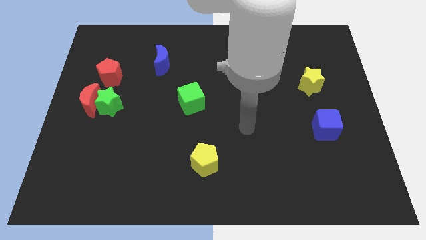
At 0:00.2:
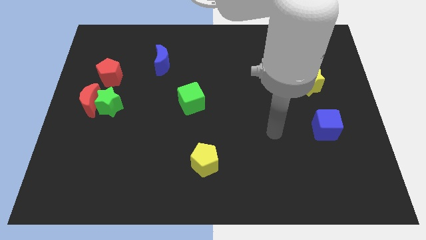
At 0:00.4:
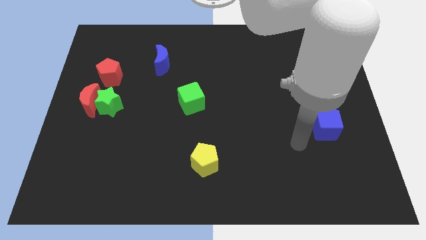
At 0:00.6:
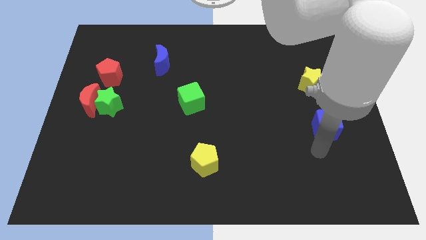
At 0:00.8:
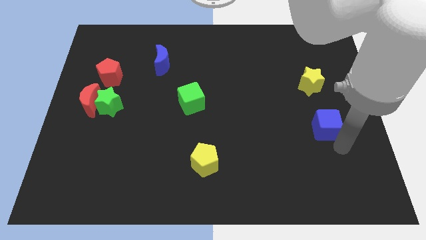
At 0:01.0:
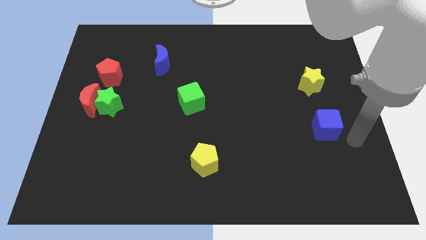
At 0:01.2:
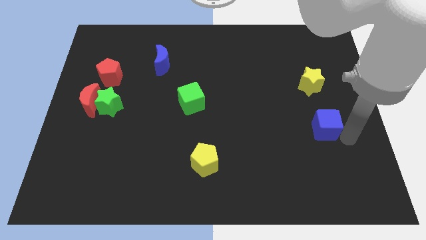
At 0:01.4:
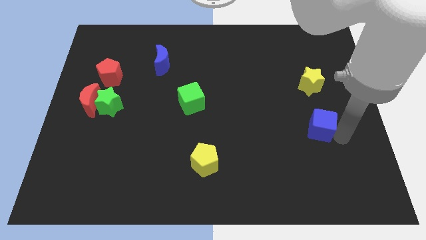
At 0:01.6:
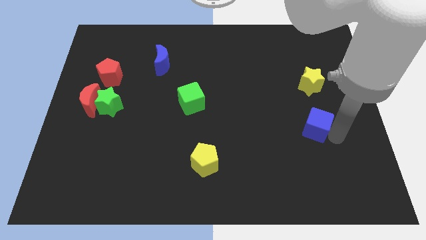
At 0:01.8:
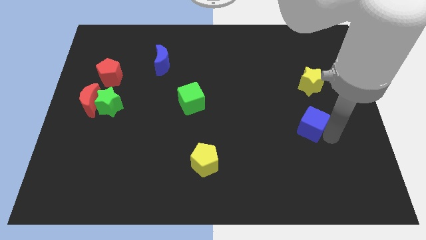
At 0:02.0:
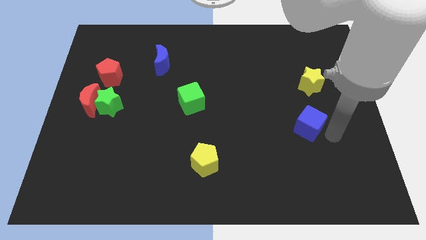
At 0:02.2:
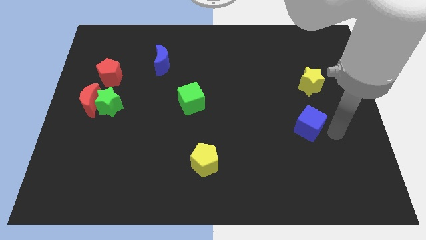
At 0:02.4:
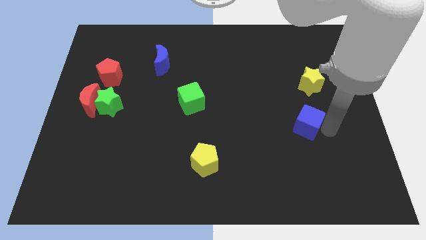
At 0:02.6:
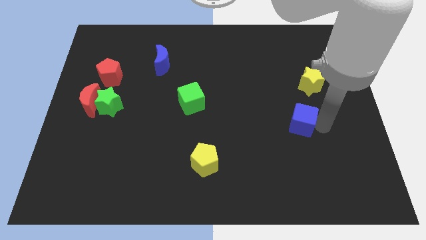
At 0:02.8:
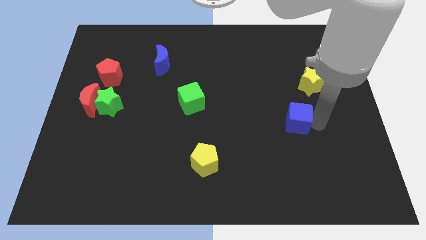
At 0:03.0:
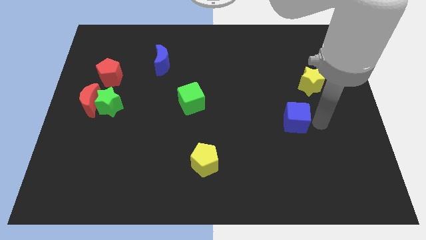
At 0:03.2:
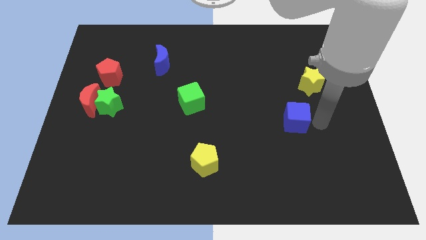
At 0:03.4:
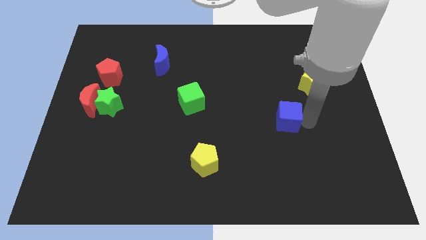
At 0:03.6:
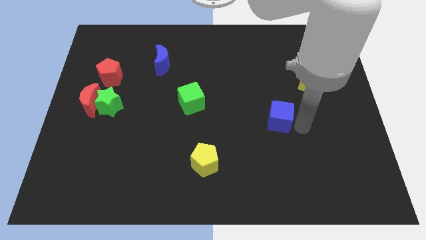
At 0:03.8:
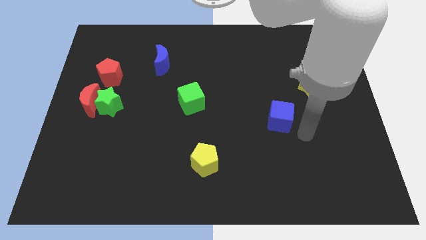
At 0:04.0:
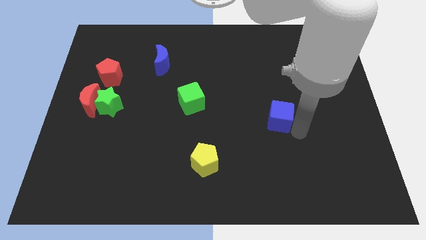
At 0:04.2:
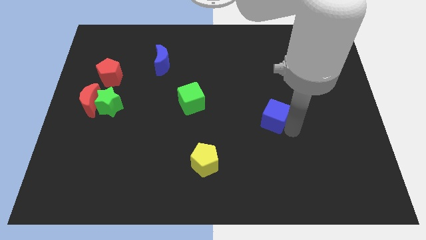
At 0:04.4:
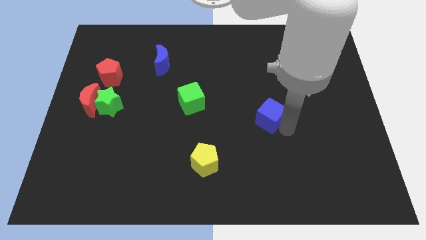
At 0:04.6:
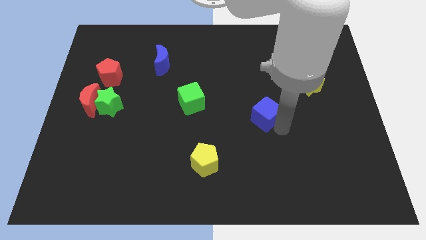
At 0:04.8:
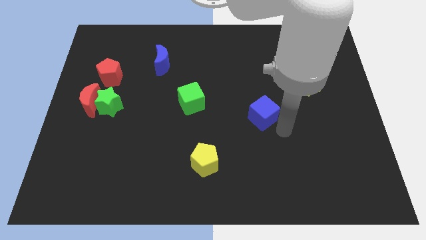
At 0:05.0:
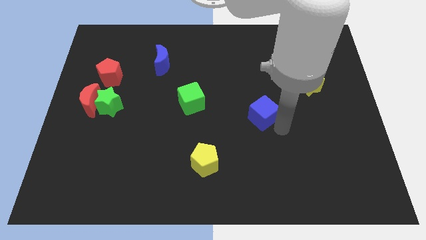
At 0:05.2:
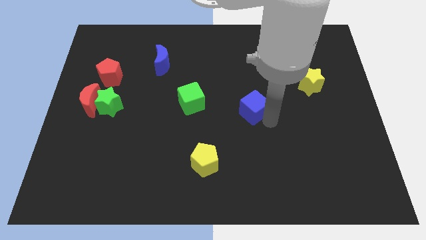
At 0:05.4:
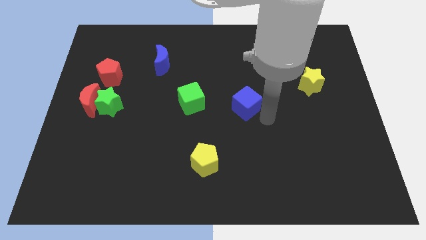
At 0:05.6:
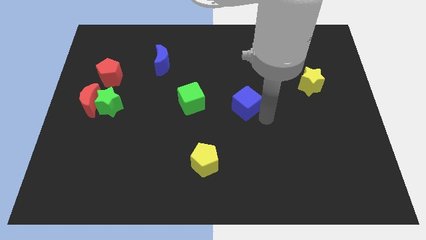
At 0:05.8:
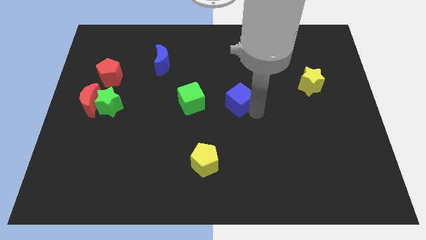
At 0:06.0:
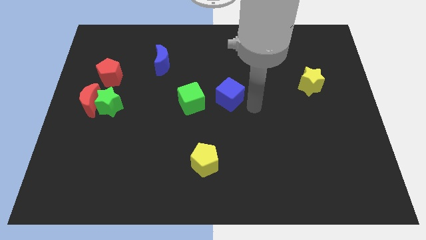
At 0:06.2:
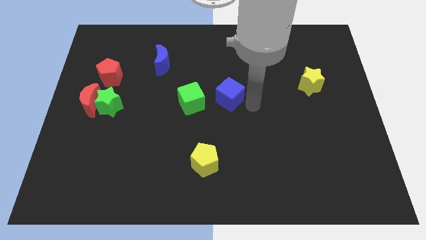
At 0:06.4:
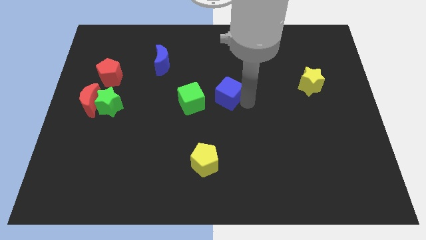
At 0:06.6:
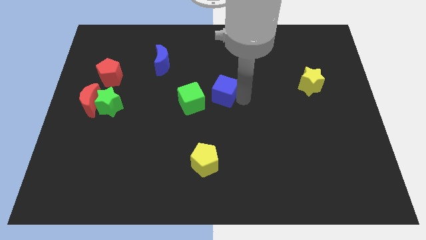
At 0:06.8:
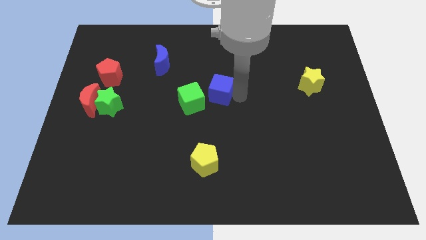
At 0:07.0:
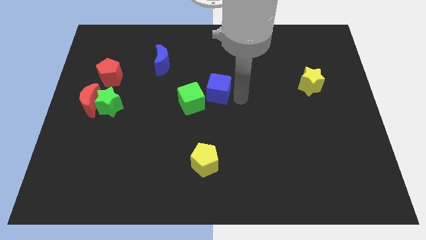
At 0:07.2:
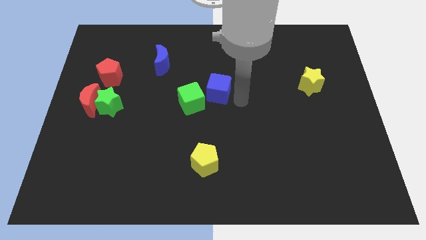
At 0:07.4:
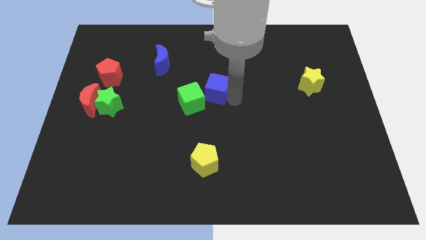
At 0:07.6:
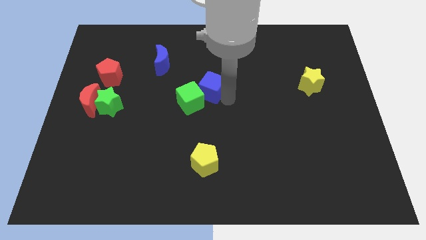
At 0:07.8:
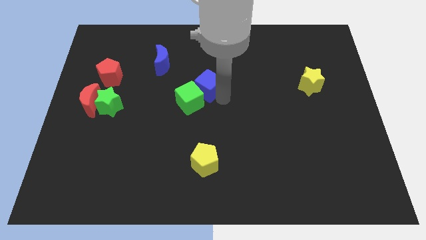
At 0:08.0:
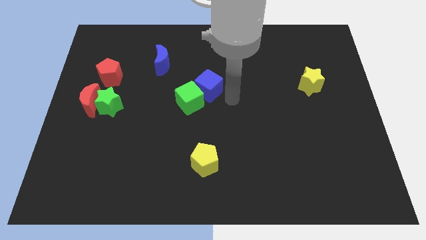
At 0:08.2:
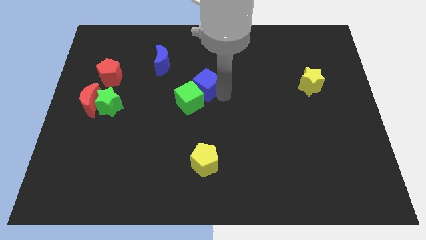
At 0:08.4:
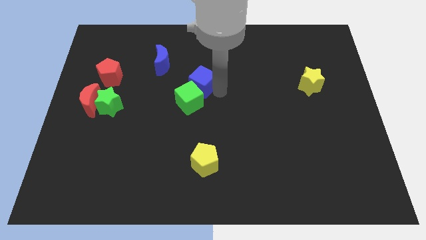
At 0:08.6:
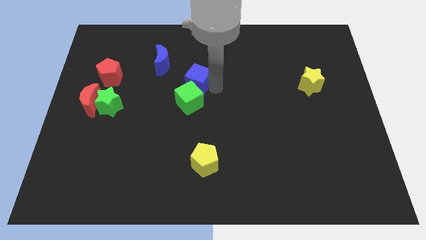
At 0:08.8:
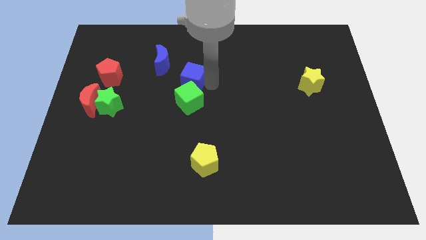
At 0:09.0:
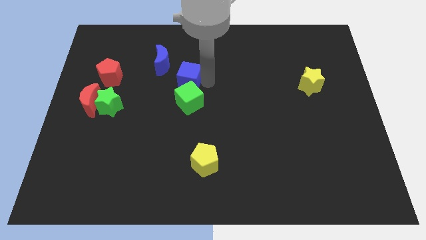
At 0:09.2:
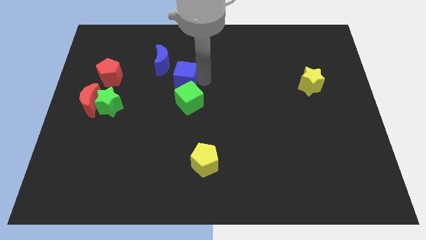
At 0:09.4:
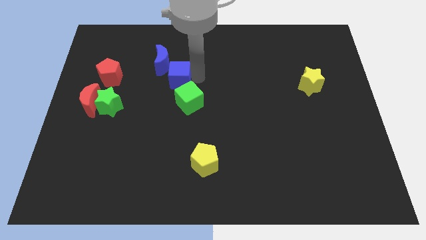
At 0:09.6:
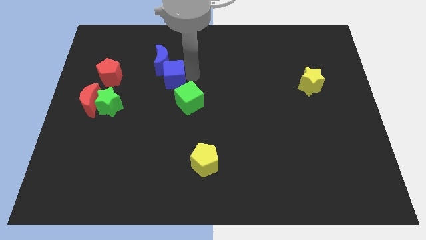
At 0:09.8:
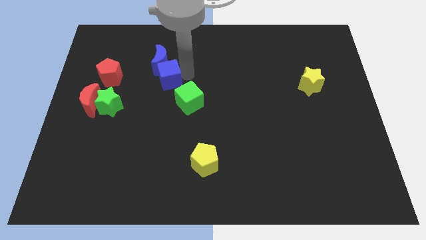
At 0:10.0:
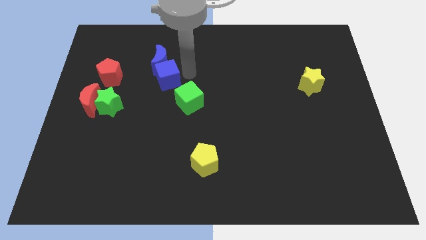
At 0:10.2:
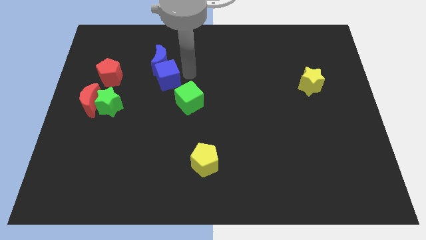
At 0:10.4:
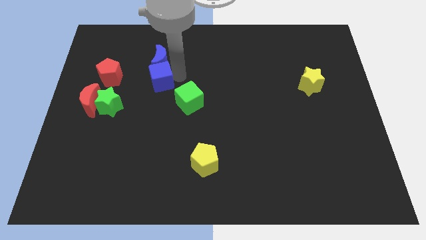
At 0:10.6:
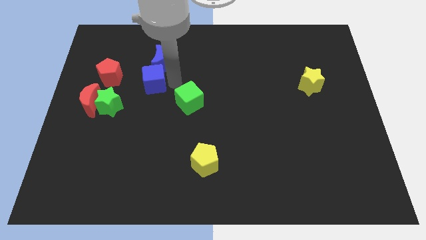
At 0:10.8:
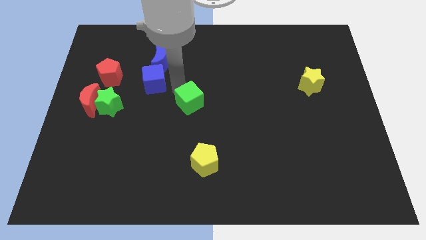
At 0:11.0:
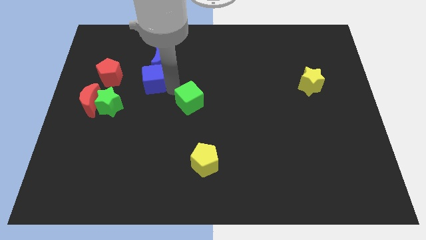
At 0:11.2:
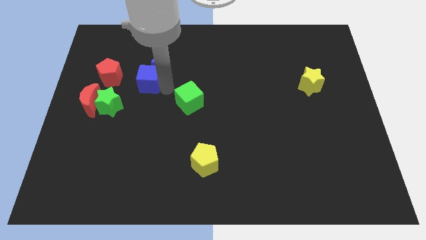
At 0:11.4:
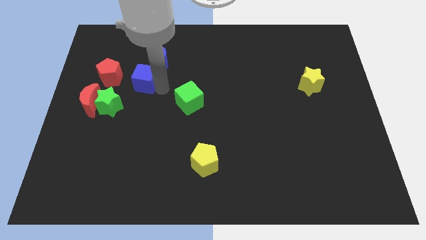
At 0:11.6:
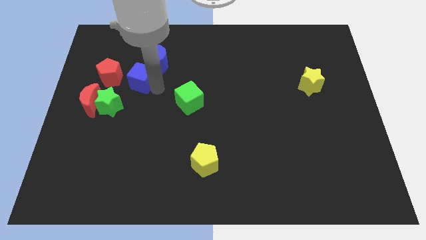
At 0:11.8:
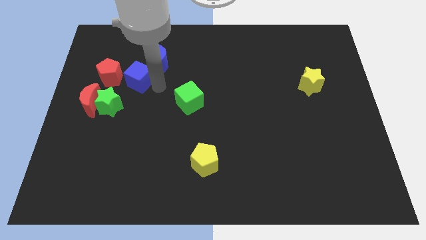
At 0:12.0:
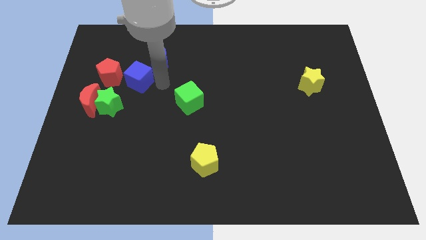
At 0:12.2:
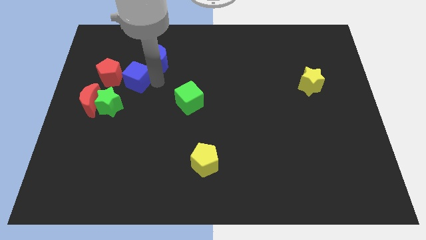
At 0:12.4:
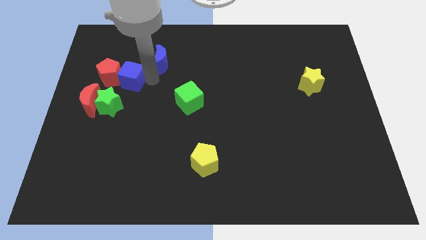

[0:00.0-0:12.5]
push the blue cube towards the red pentagon

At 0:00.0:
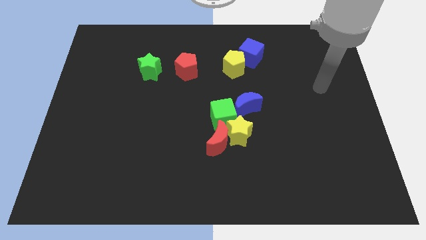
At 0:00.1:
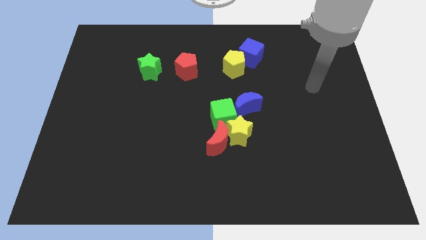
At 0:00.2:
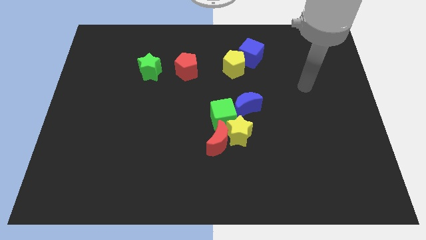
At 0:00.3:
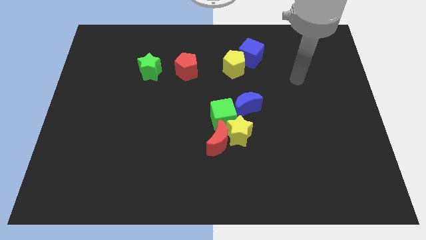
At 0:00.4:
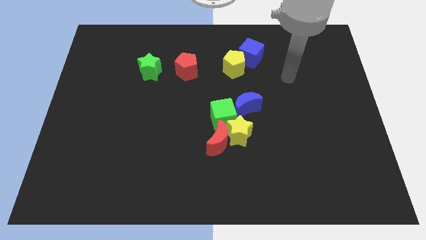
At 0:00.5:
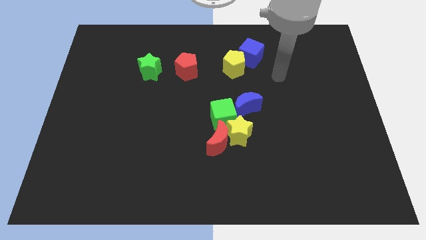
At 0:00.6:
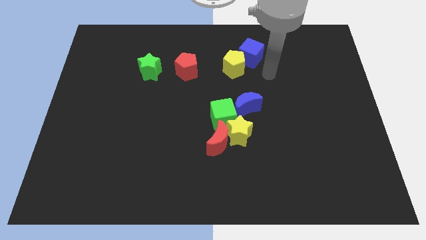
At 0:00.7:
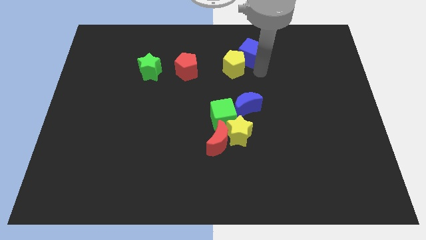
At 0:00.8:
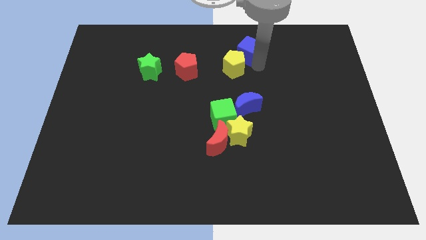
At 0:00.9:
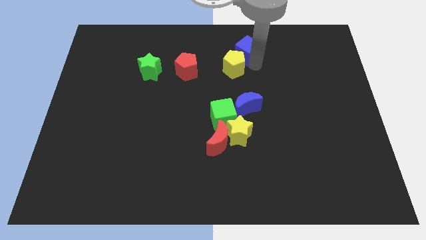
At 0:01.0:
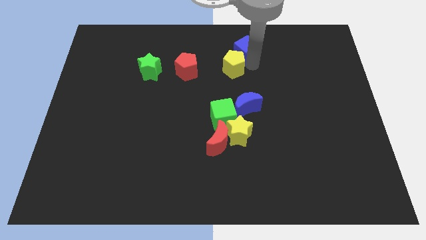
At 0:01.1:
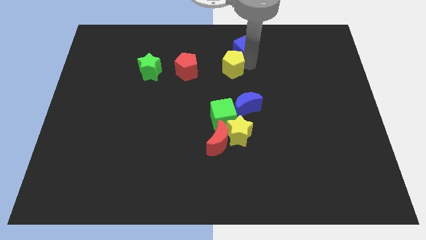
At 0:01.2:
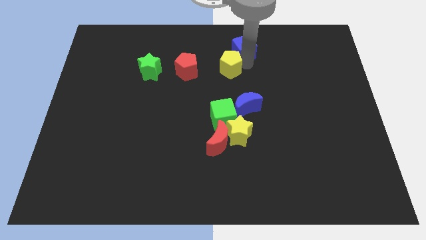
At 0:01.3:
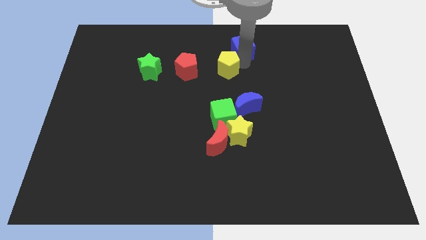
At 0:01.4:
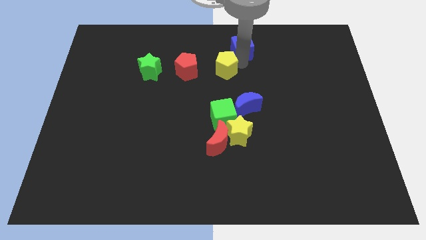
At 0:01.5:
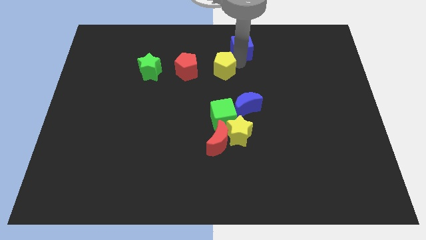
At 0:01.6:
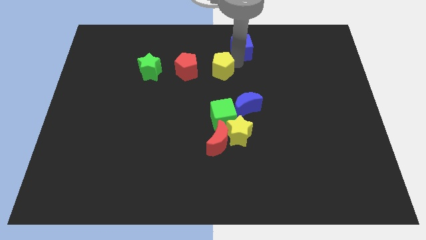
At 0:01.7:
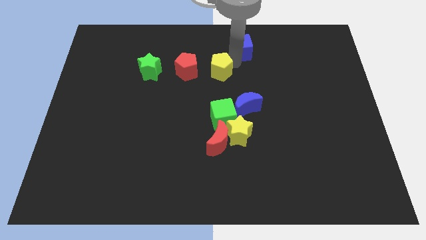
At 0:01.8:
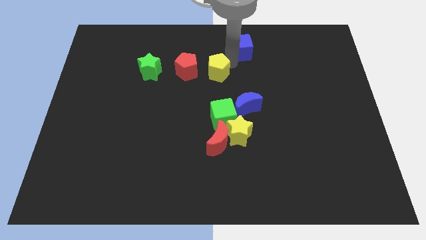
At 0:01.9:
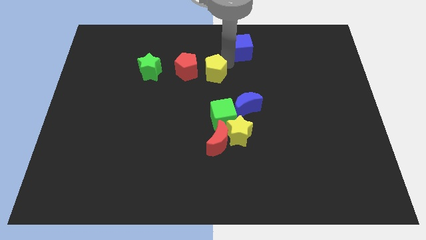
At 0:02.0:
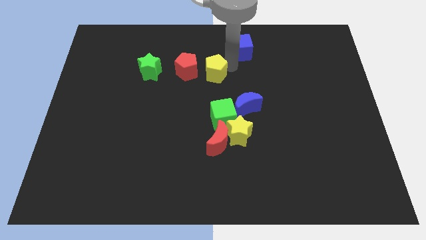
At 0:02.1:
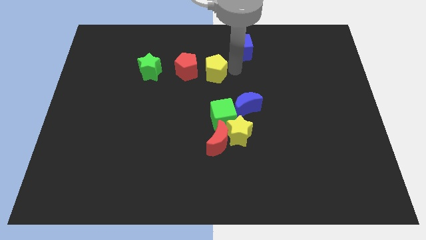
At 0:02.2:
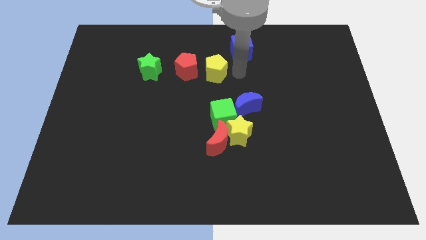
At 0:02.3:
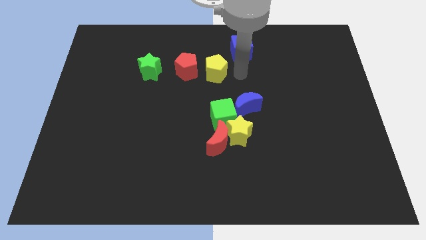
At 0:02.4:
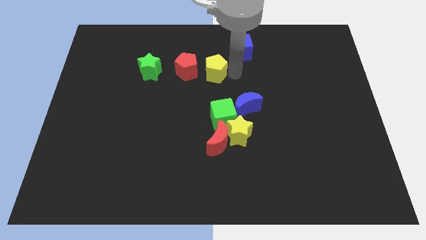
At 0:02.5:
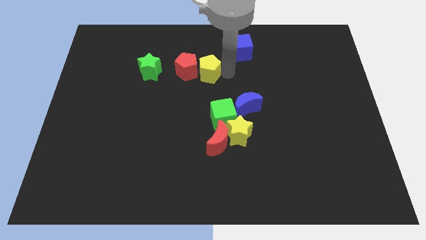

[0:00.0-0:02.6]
move the yellow pentagon to the red pentagon
